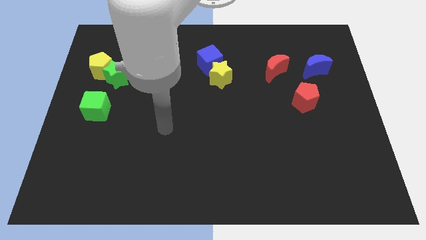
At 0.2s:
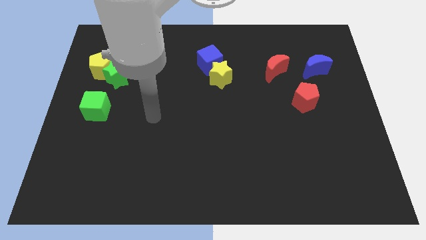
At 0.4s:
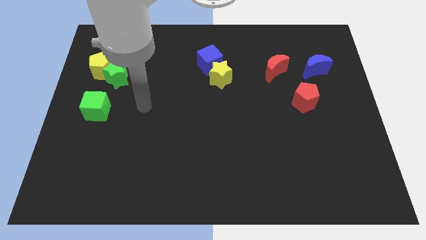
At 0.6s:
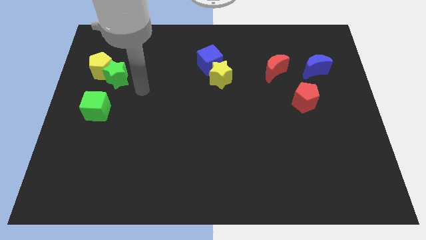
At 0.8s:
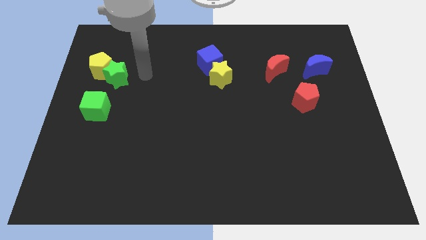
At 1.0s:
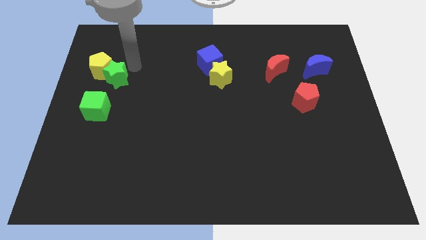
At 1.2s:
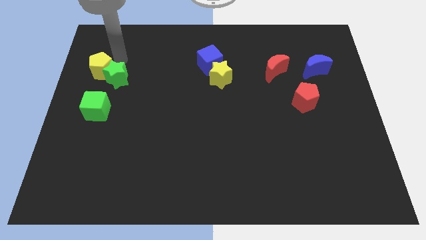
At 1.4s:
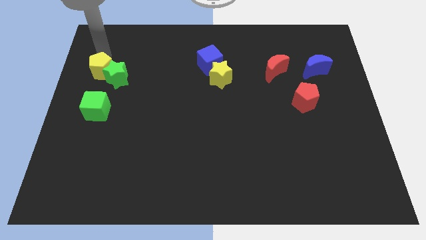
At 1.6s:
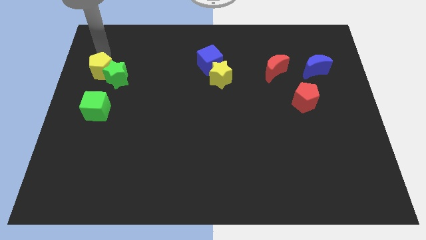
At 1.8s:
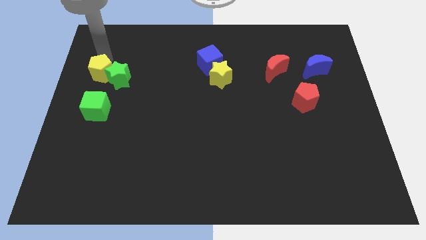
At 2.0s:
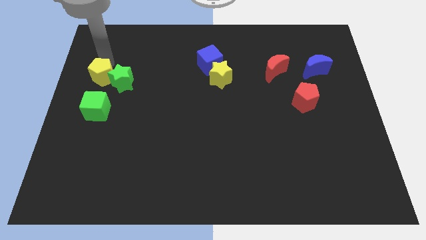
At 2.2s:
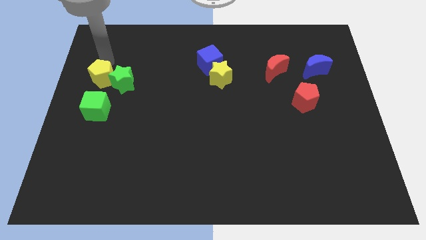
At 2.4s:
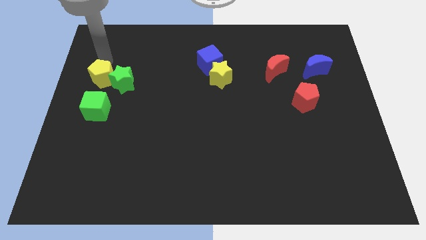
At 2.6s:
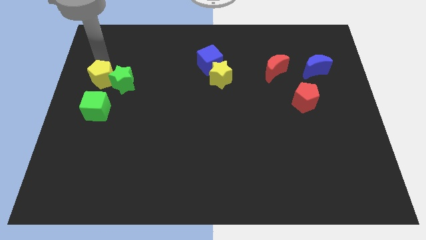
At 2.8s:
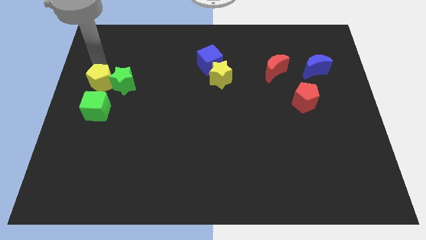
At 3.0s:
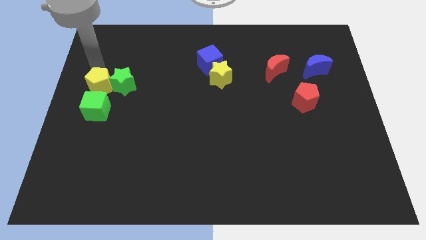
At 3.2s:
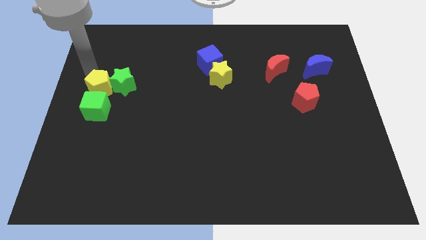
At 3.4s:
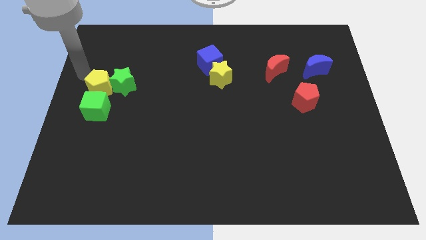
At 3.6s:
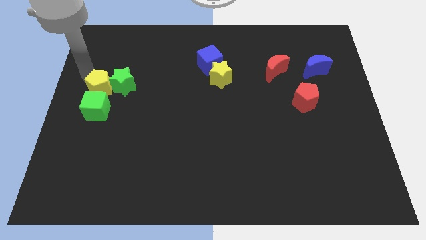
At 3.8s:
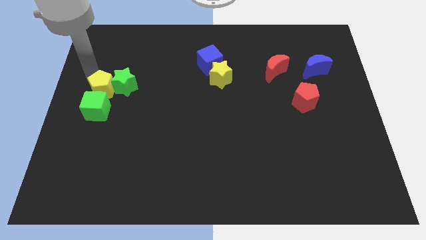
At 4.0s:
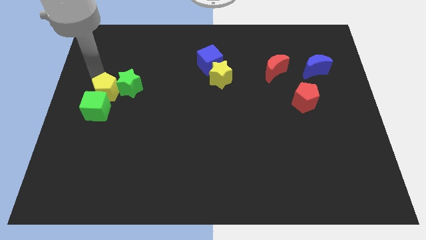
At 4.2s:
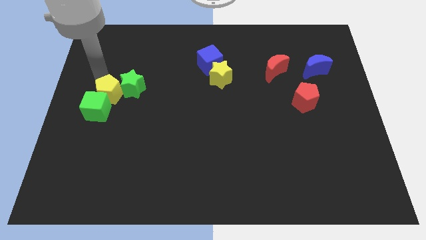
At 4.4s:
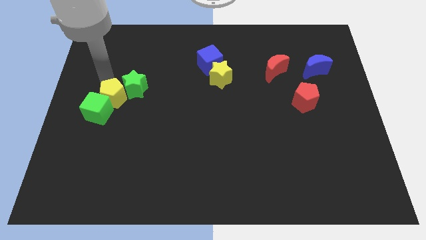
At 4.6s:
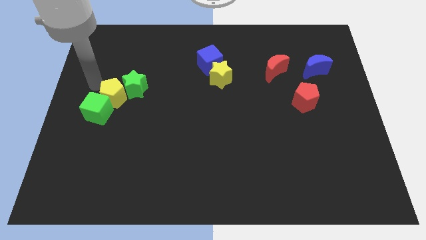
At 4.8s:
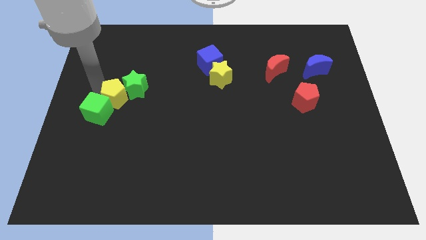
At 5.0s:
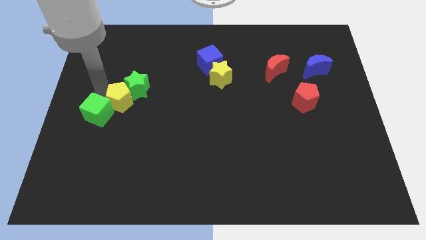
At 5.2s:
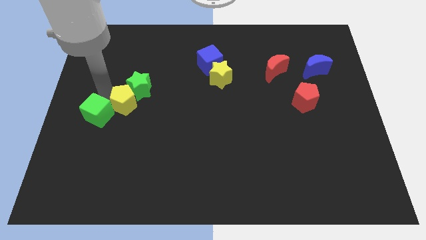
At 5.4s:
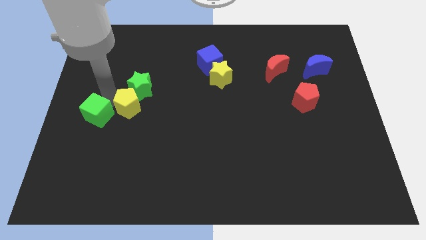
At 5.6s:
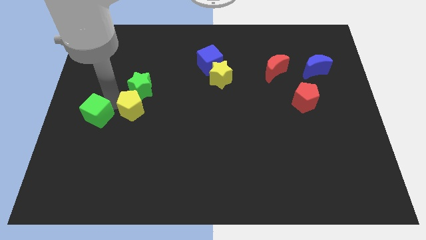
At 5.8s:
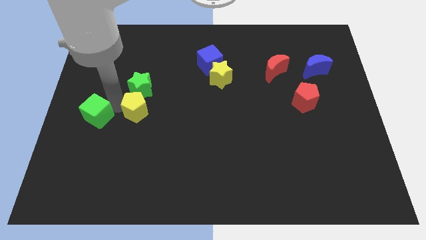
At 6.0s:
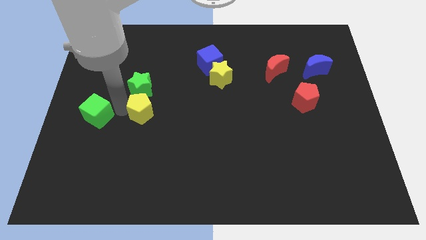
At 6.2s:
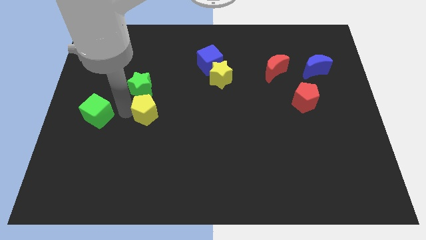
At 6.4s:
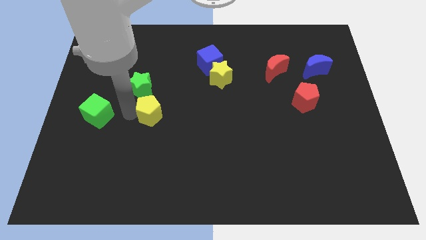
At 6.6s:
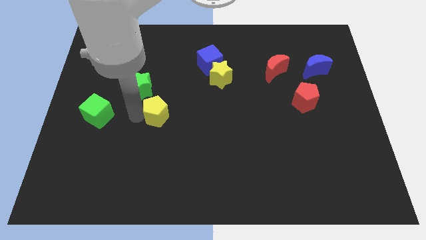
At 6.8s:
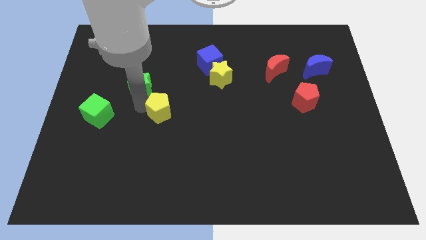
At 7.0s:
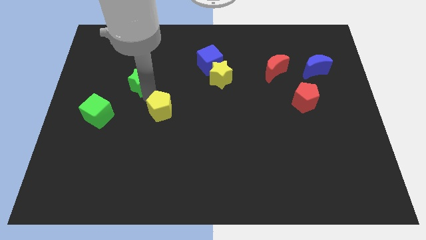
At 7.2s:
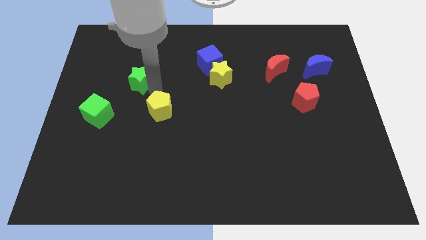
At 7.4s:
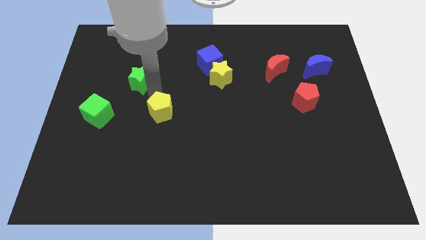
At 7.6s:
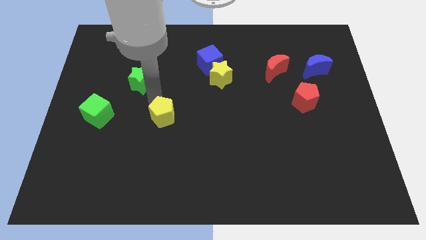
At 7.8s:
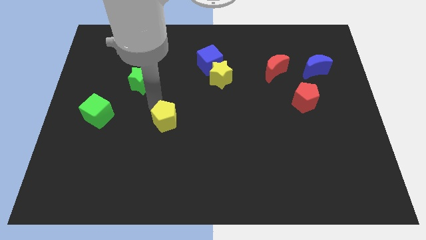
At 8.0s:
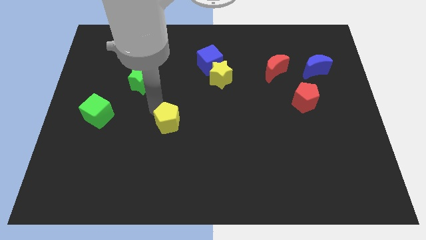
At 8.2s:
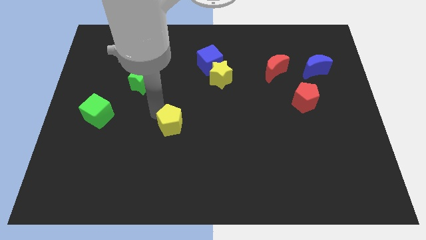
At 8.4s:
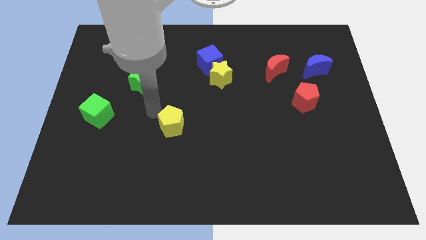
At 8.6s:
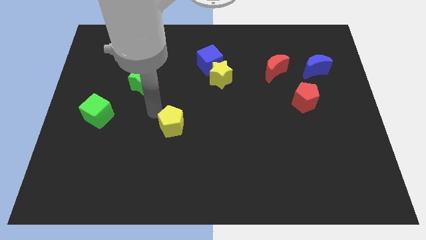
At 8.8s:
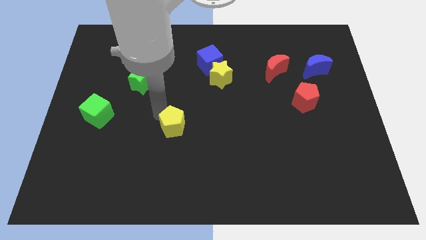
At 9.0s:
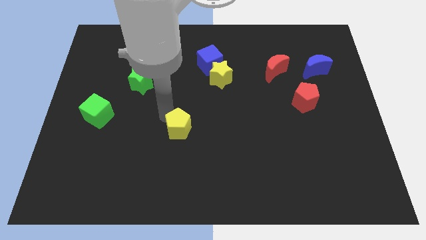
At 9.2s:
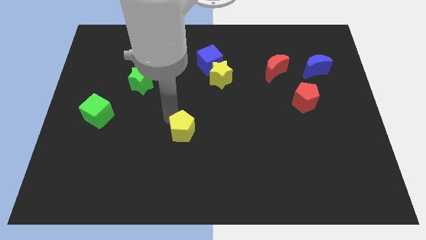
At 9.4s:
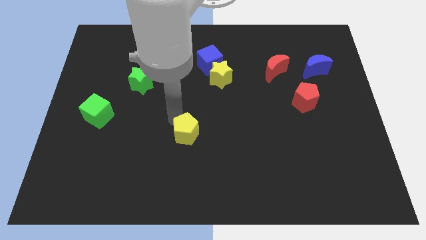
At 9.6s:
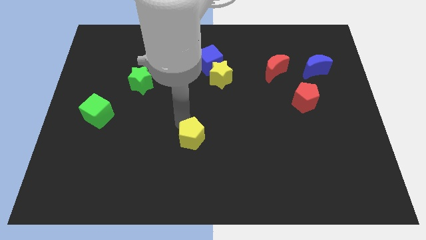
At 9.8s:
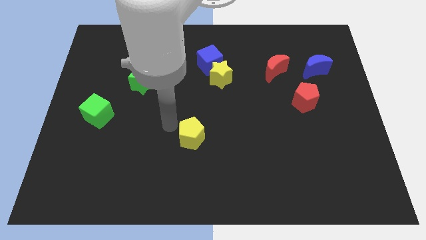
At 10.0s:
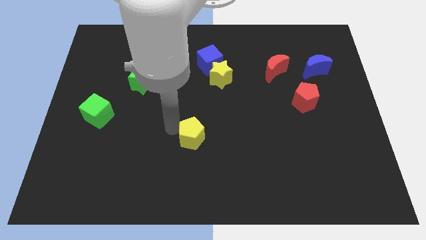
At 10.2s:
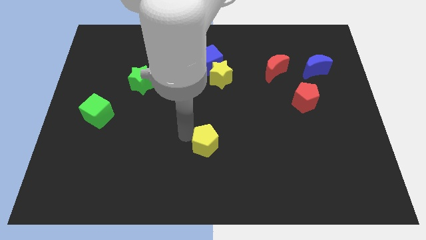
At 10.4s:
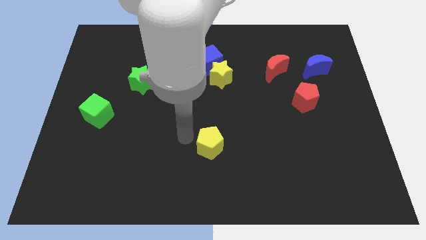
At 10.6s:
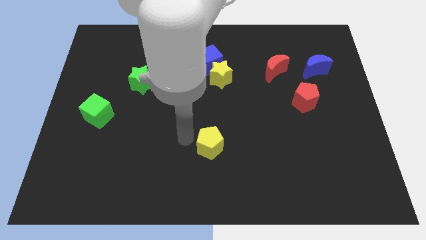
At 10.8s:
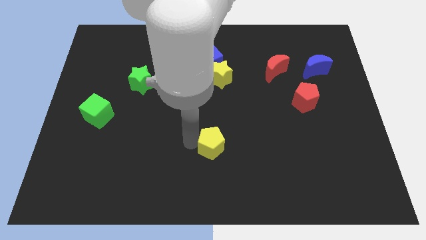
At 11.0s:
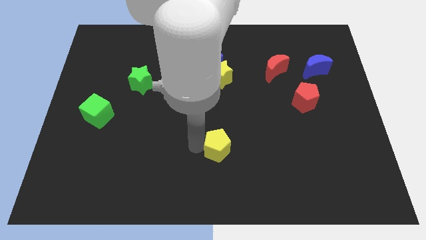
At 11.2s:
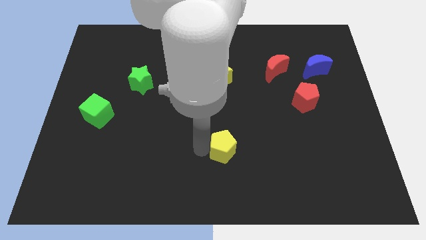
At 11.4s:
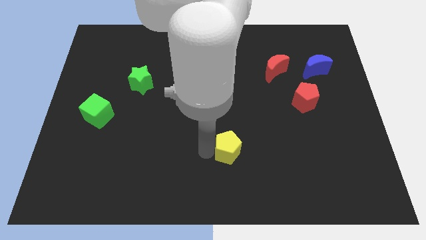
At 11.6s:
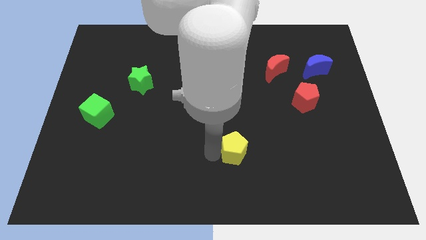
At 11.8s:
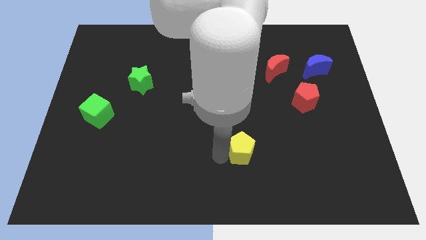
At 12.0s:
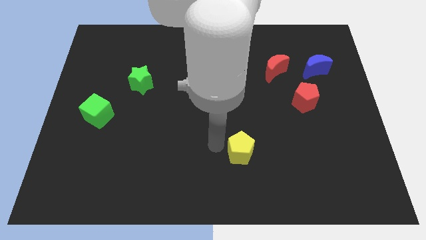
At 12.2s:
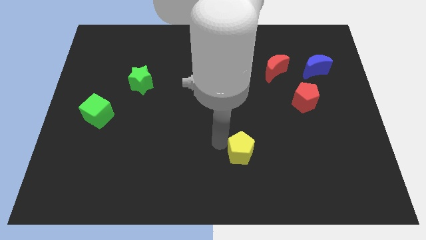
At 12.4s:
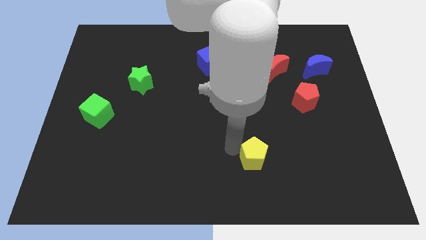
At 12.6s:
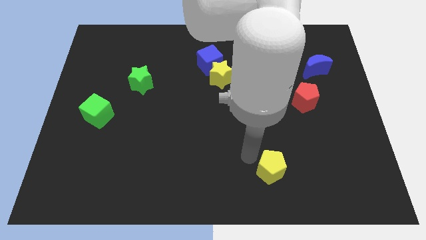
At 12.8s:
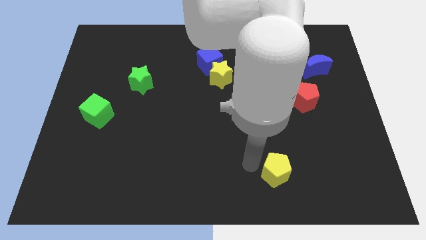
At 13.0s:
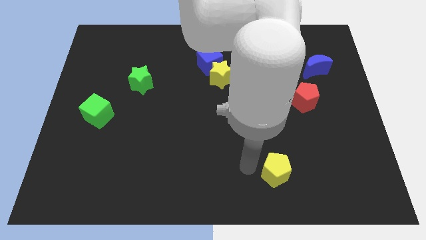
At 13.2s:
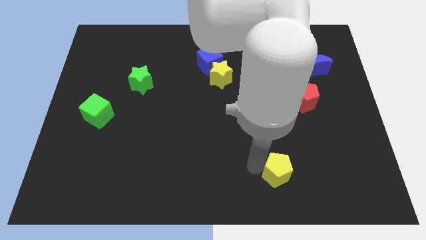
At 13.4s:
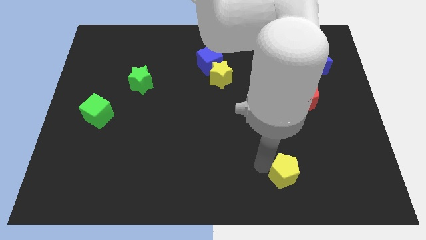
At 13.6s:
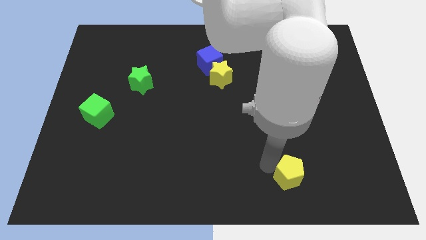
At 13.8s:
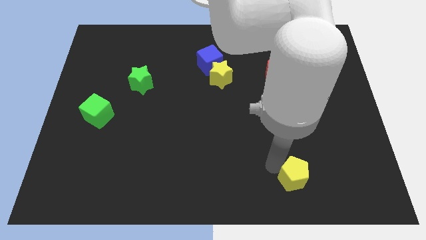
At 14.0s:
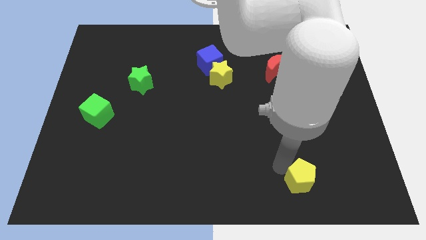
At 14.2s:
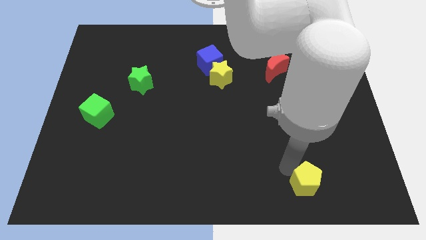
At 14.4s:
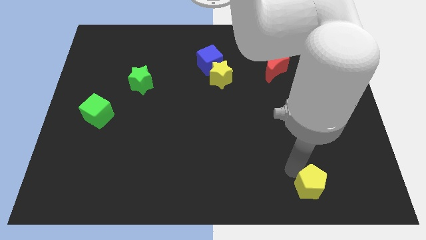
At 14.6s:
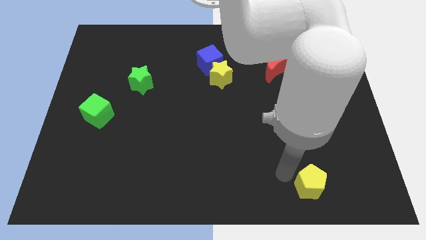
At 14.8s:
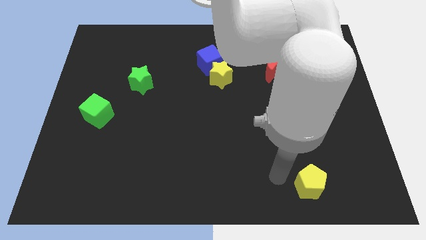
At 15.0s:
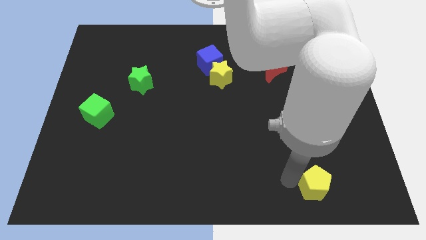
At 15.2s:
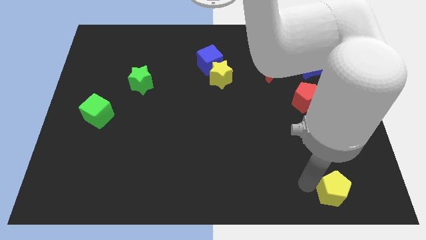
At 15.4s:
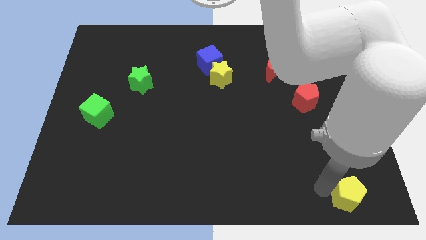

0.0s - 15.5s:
push the yellow pentagon to the bottom right
